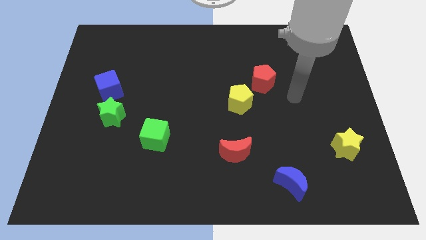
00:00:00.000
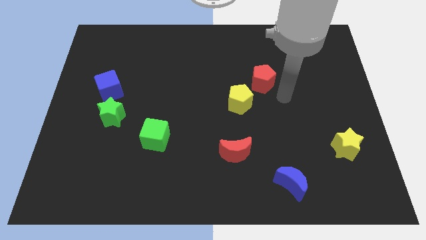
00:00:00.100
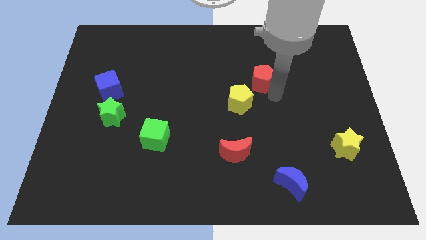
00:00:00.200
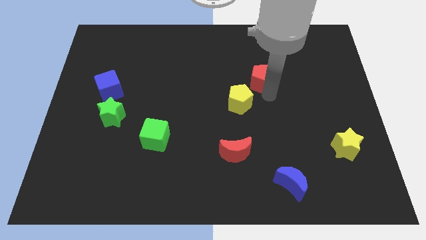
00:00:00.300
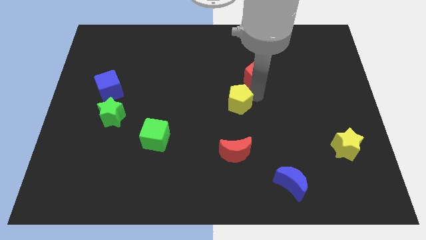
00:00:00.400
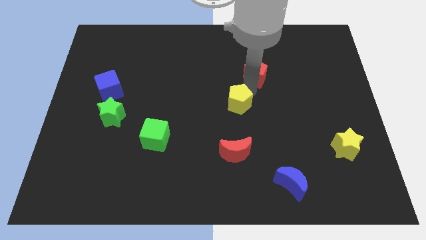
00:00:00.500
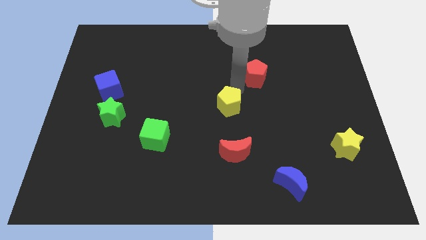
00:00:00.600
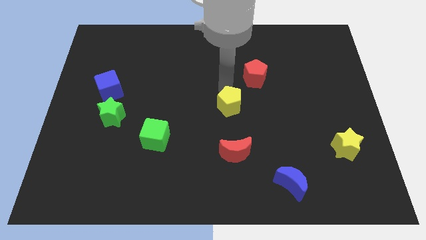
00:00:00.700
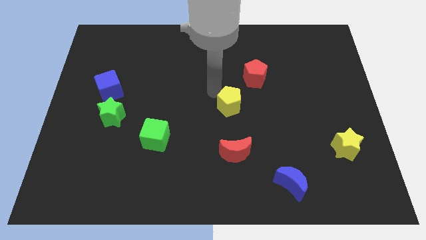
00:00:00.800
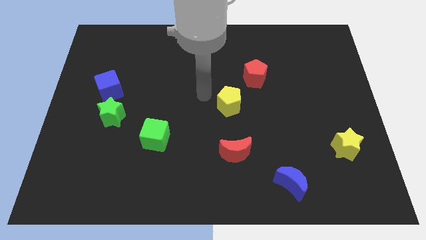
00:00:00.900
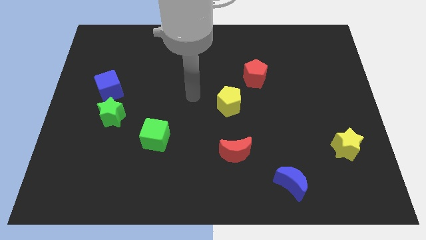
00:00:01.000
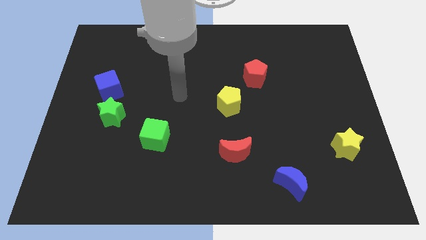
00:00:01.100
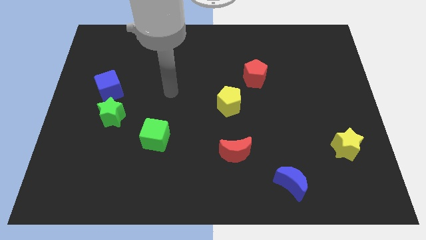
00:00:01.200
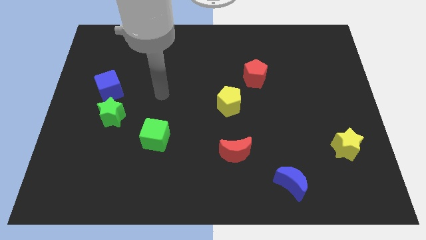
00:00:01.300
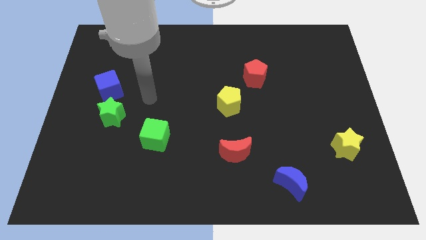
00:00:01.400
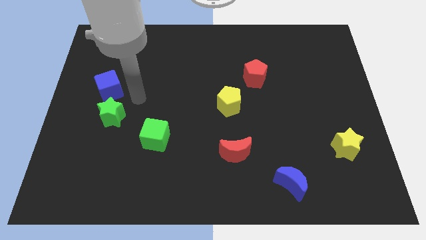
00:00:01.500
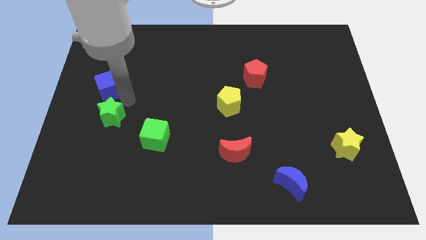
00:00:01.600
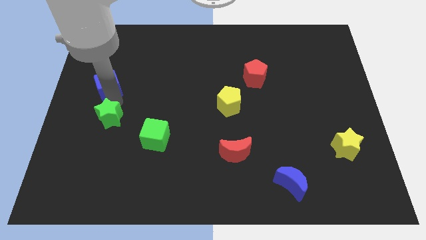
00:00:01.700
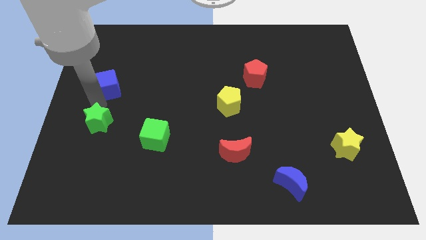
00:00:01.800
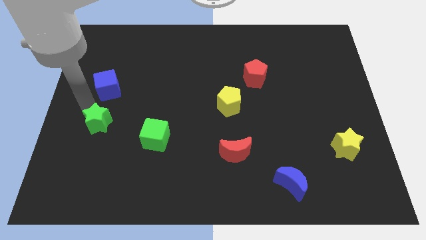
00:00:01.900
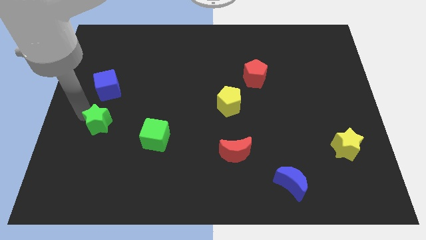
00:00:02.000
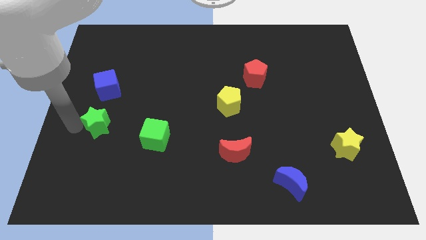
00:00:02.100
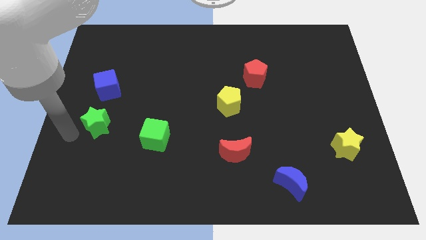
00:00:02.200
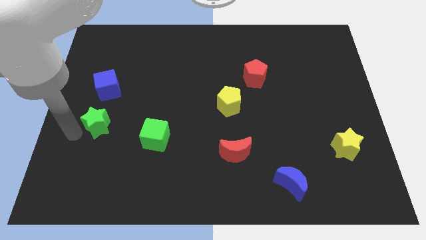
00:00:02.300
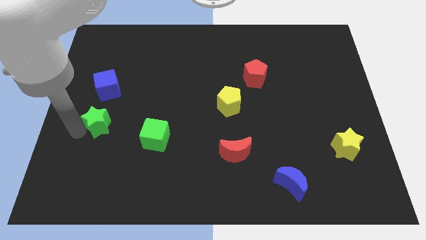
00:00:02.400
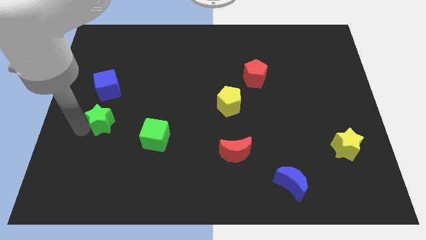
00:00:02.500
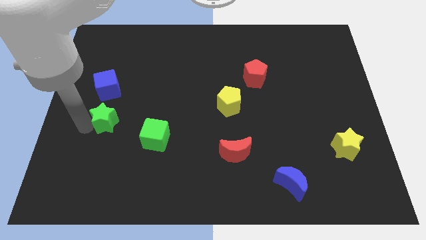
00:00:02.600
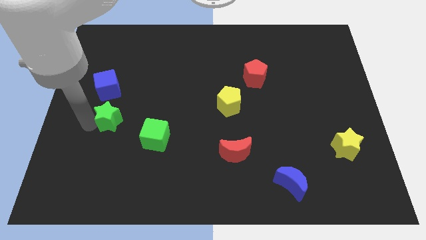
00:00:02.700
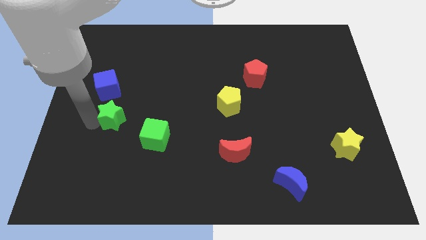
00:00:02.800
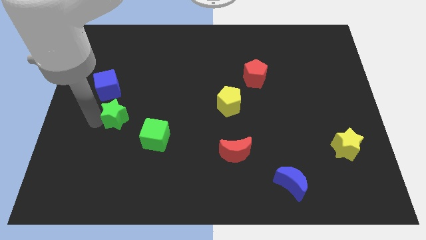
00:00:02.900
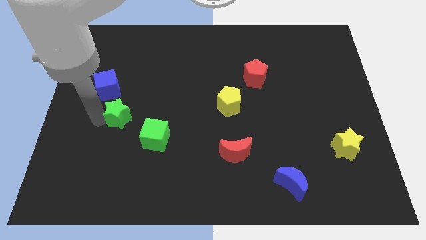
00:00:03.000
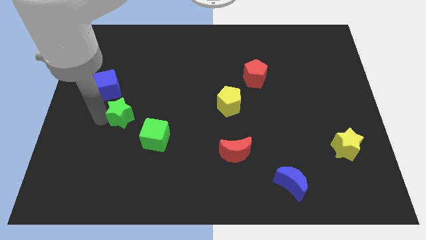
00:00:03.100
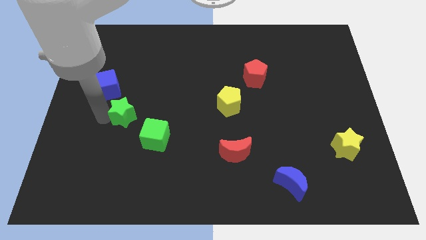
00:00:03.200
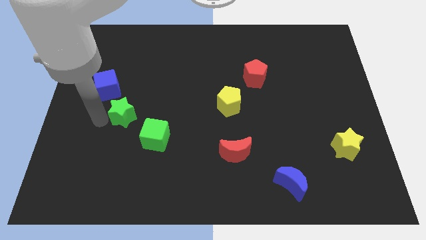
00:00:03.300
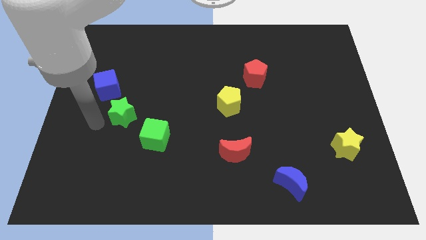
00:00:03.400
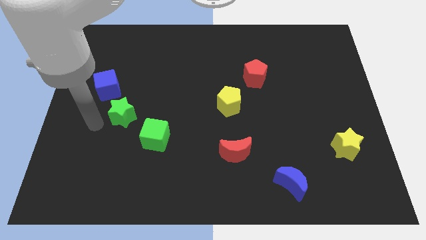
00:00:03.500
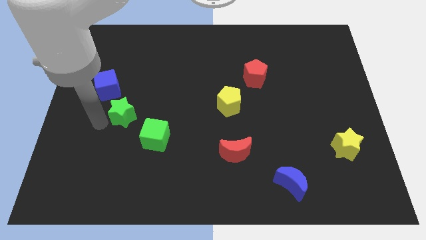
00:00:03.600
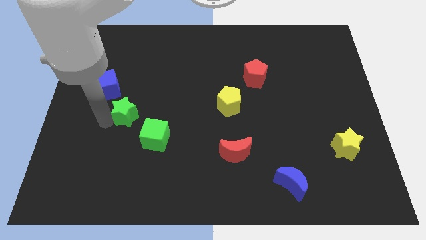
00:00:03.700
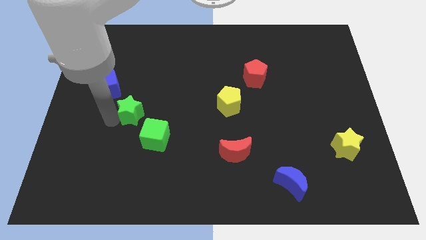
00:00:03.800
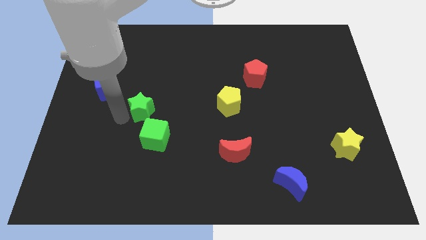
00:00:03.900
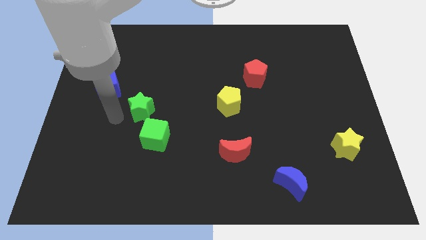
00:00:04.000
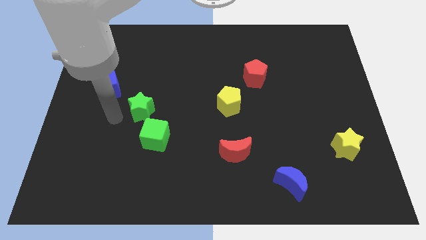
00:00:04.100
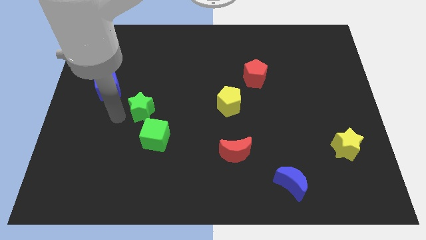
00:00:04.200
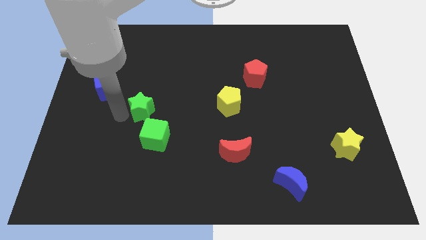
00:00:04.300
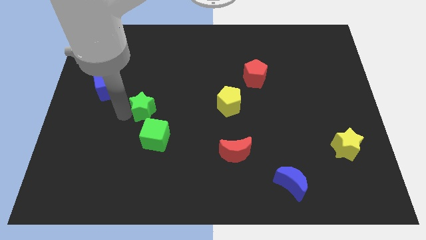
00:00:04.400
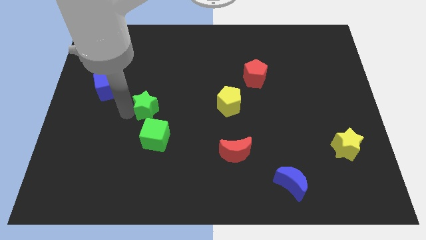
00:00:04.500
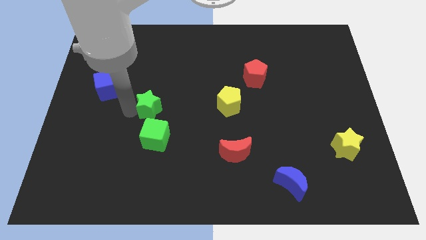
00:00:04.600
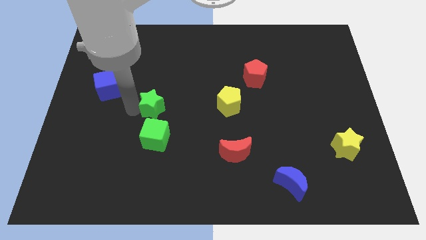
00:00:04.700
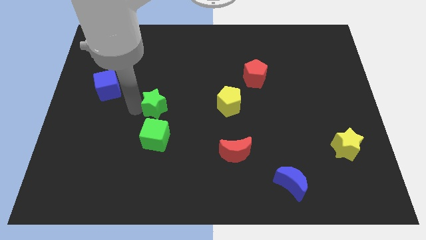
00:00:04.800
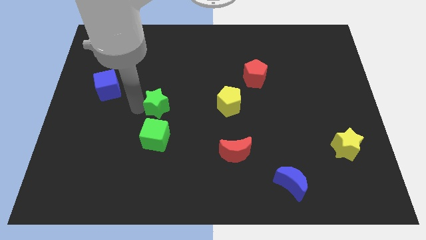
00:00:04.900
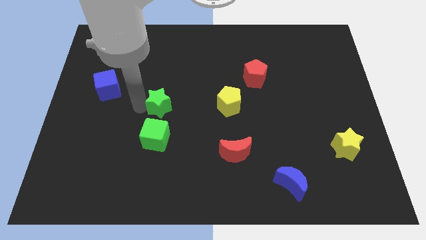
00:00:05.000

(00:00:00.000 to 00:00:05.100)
push the green star to the middle of the board

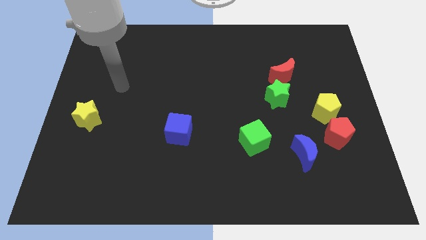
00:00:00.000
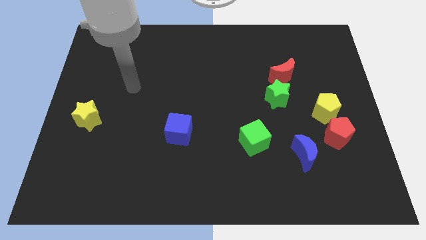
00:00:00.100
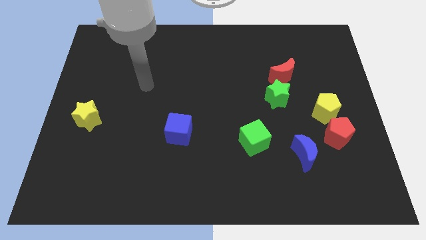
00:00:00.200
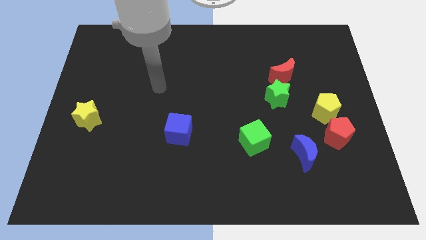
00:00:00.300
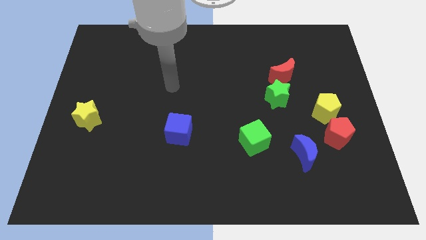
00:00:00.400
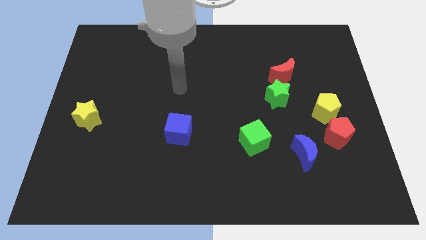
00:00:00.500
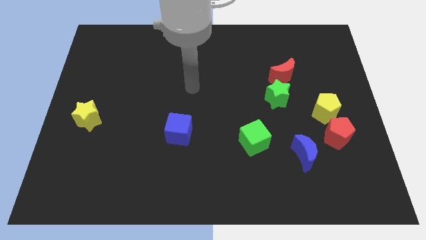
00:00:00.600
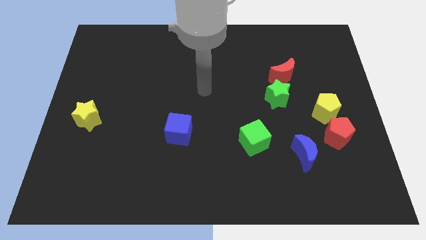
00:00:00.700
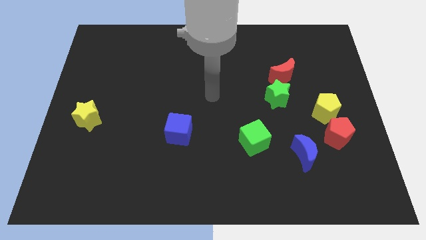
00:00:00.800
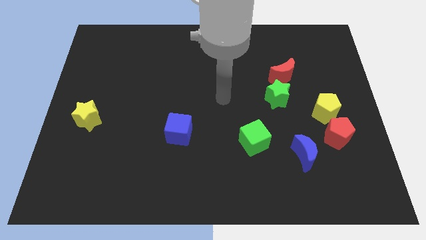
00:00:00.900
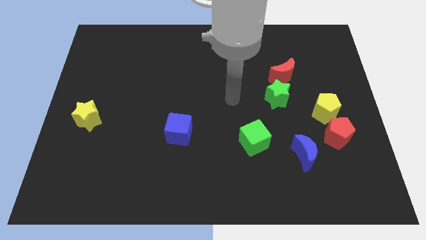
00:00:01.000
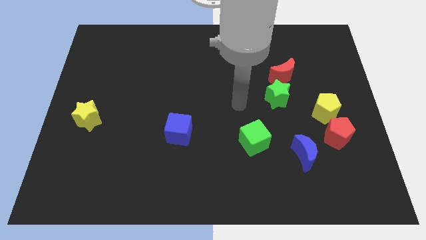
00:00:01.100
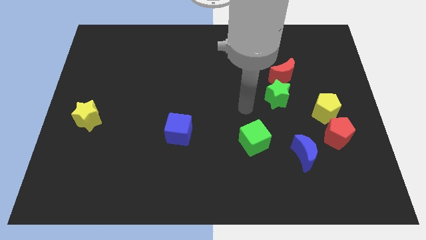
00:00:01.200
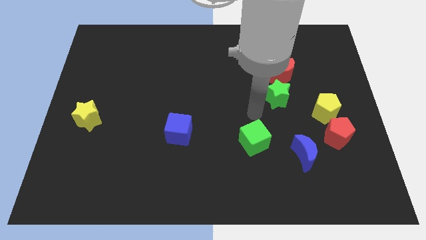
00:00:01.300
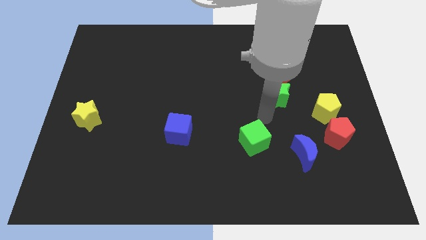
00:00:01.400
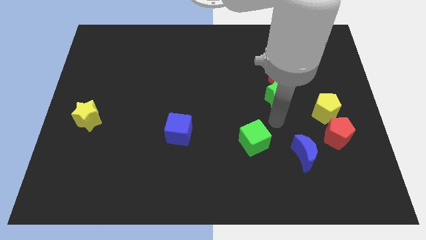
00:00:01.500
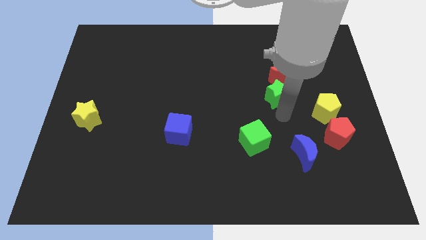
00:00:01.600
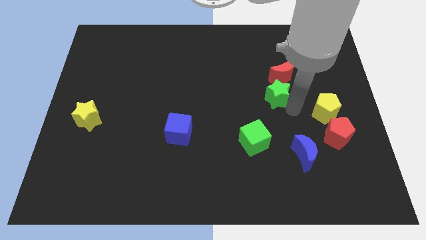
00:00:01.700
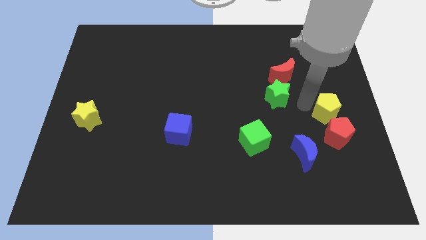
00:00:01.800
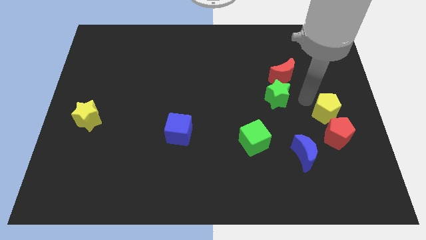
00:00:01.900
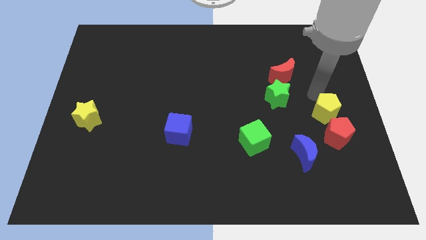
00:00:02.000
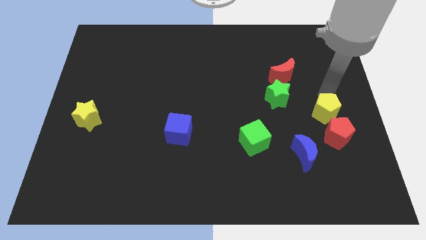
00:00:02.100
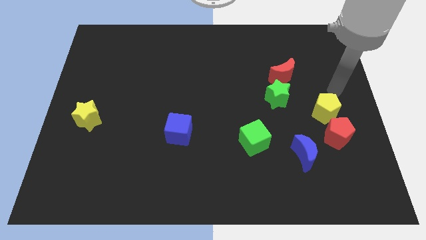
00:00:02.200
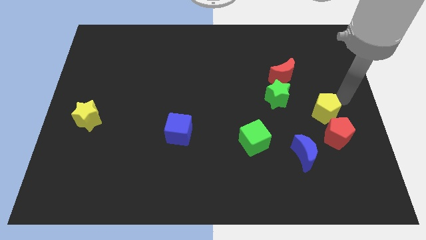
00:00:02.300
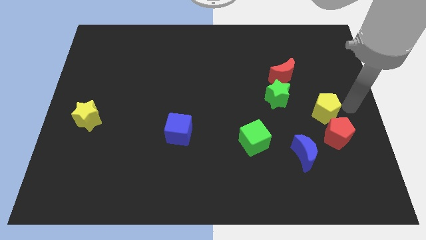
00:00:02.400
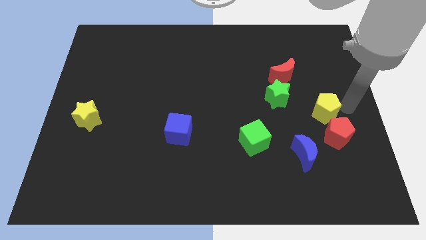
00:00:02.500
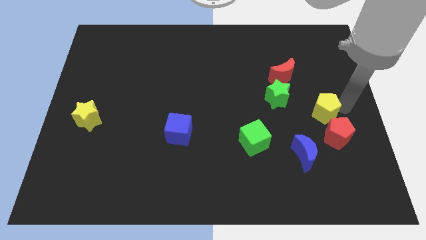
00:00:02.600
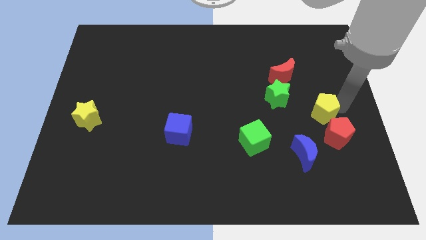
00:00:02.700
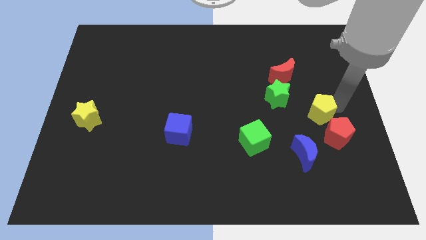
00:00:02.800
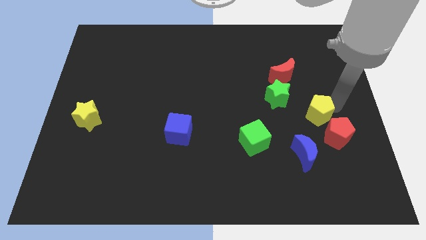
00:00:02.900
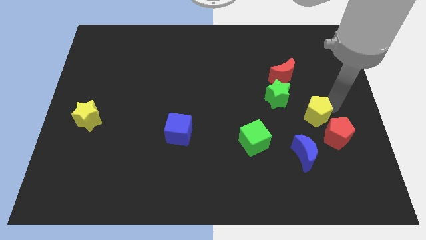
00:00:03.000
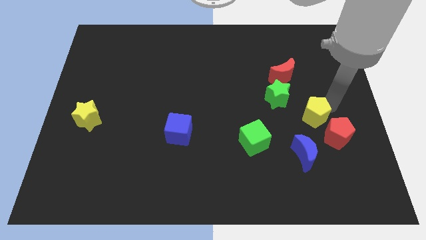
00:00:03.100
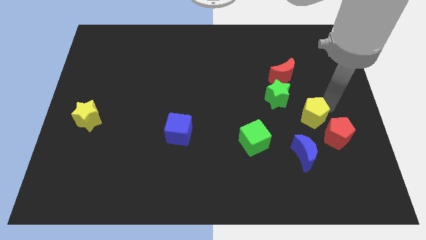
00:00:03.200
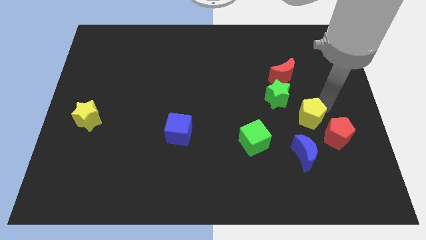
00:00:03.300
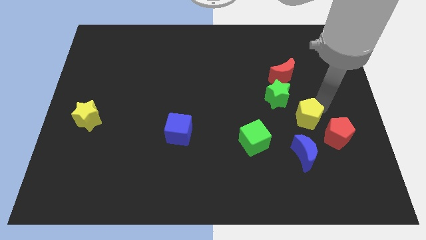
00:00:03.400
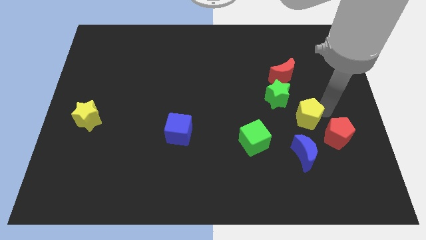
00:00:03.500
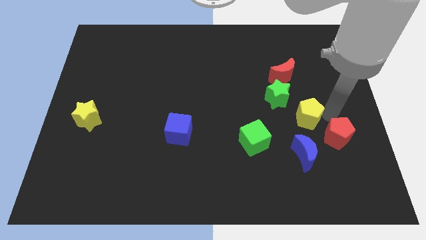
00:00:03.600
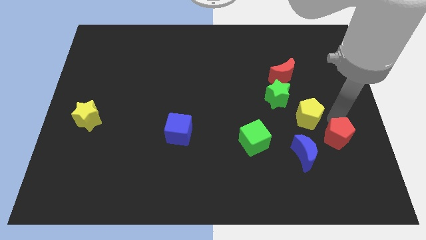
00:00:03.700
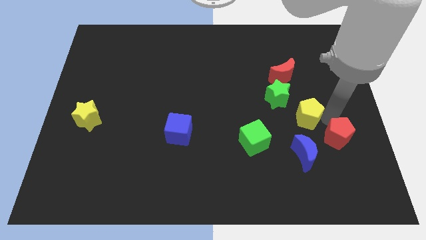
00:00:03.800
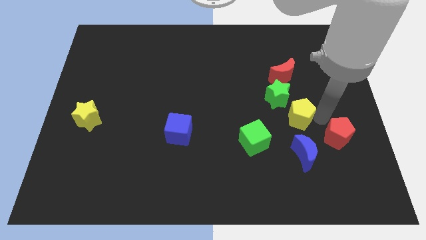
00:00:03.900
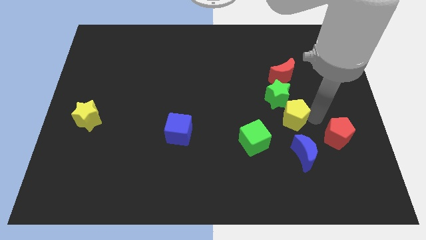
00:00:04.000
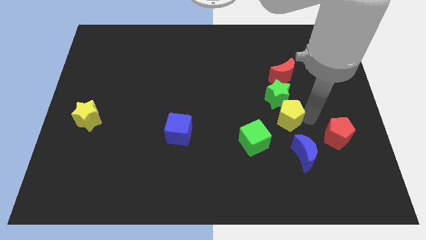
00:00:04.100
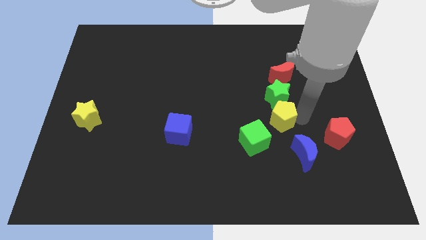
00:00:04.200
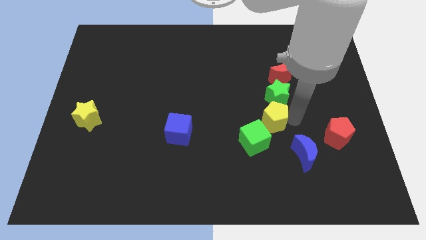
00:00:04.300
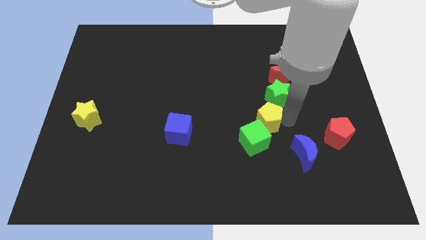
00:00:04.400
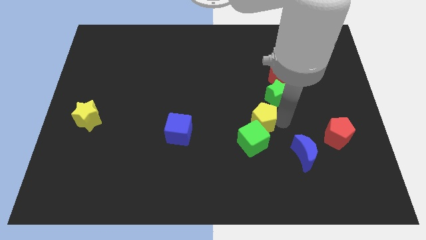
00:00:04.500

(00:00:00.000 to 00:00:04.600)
slide the yellow pentagon to the center
